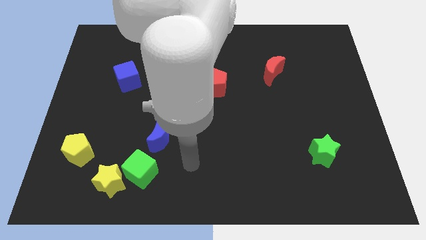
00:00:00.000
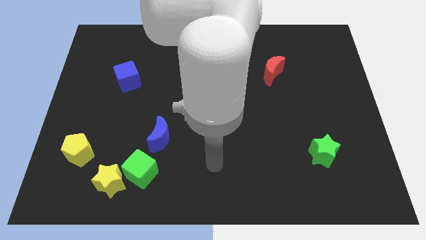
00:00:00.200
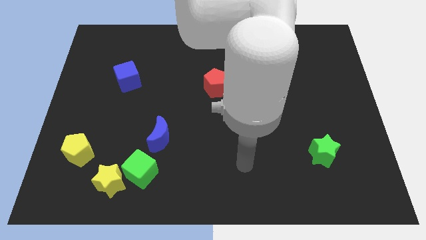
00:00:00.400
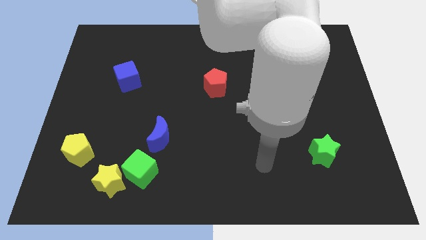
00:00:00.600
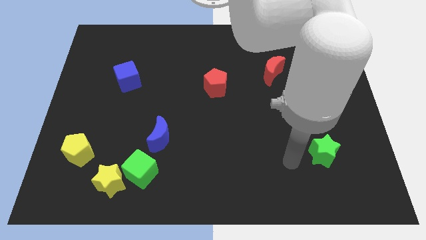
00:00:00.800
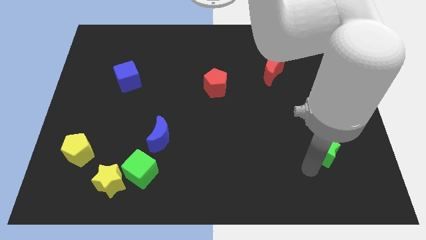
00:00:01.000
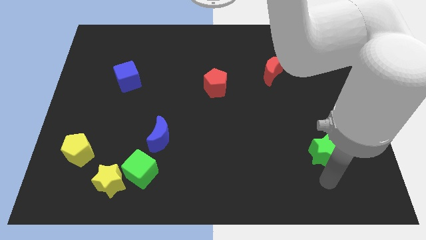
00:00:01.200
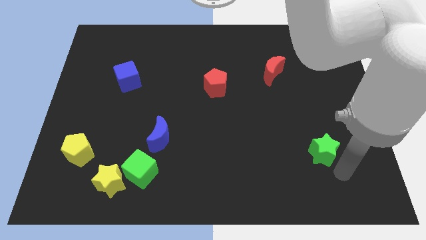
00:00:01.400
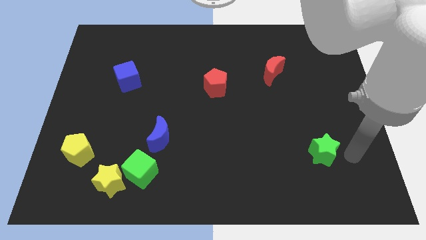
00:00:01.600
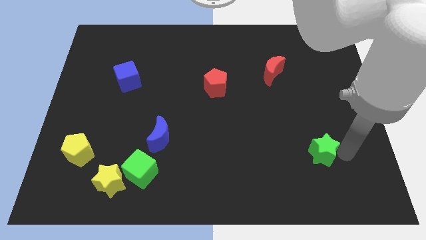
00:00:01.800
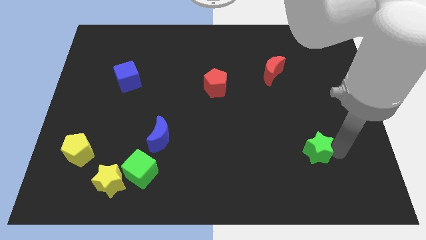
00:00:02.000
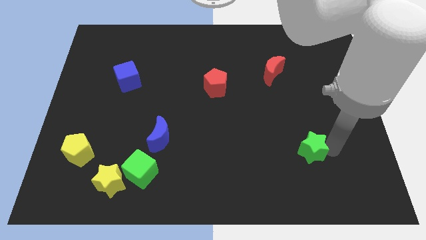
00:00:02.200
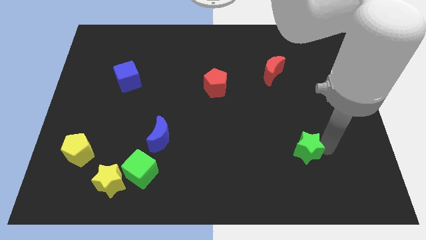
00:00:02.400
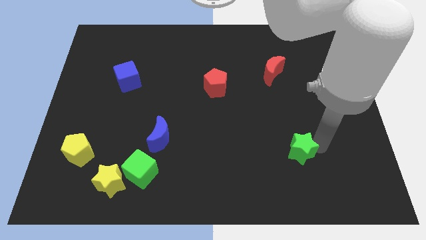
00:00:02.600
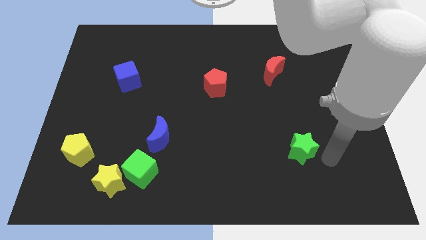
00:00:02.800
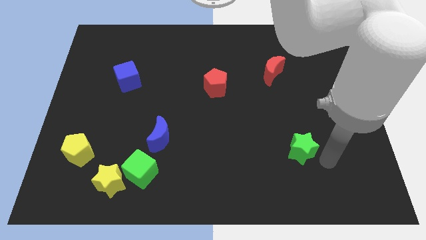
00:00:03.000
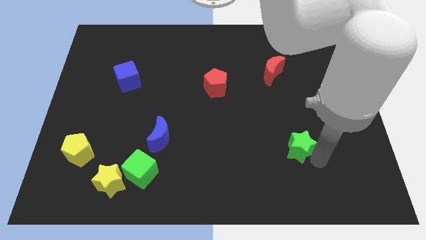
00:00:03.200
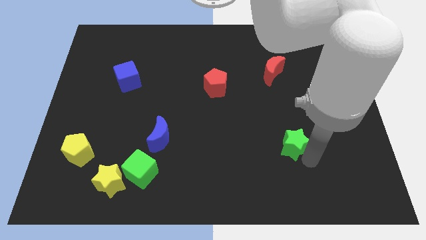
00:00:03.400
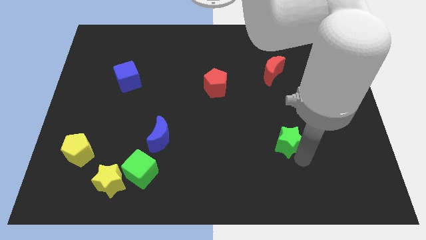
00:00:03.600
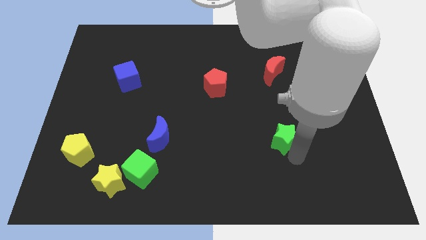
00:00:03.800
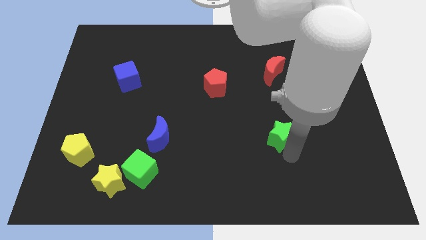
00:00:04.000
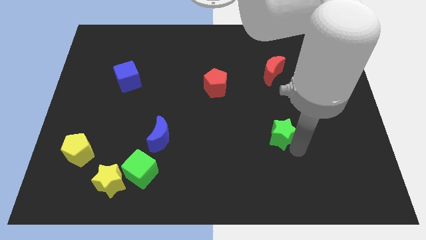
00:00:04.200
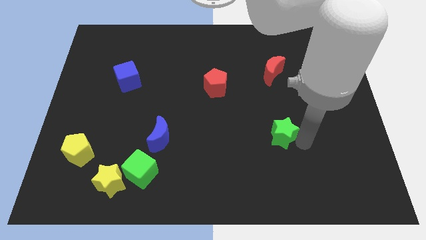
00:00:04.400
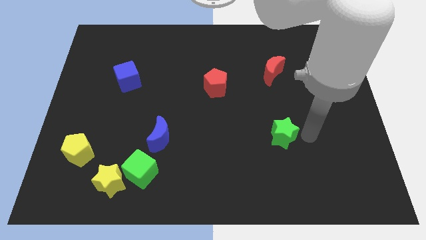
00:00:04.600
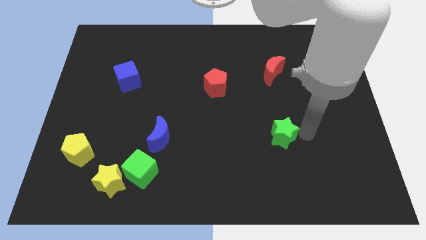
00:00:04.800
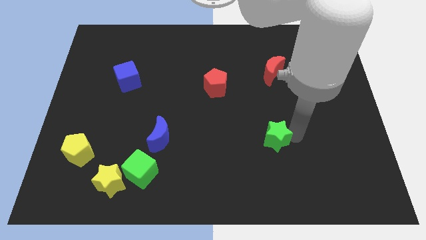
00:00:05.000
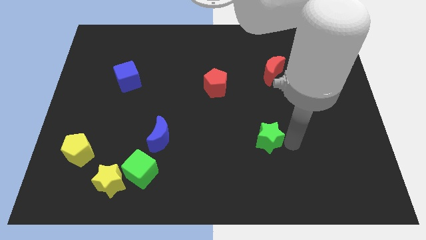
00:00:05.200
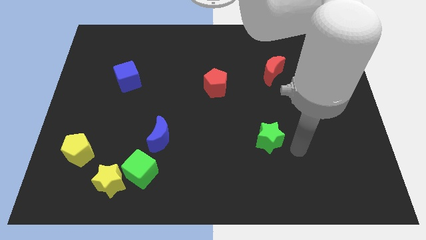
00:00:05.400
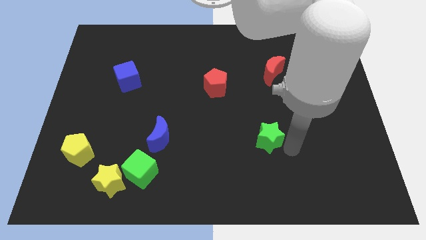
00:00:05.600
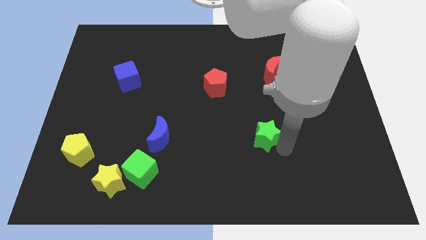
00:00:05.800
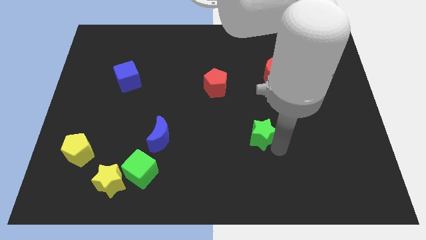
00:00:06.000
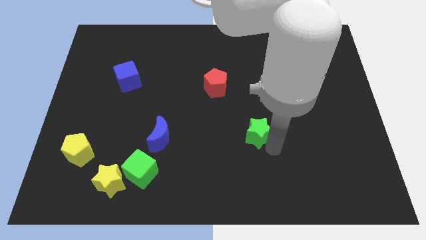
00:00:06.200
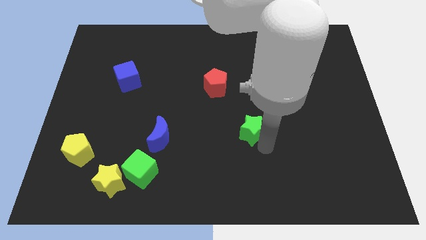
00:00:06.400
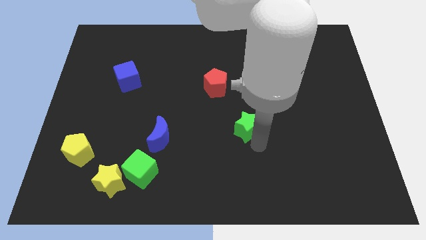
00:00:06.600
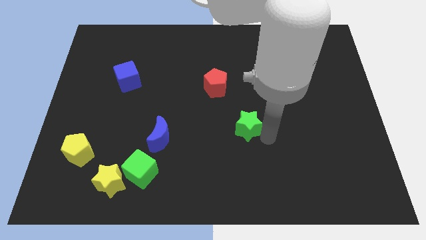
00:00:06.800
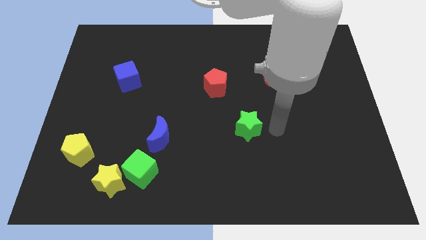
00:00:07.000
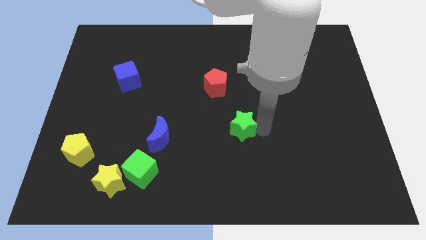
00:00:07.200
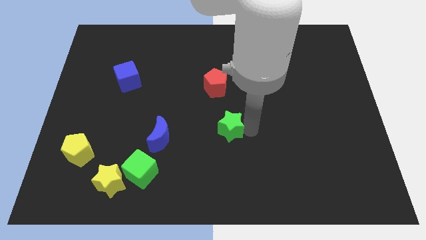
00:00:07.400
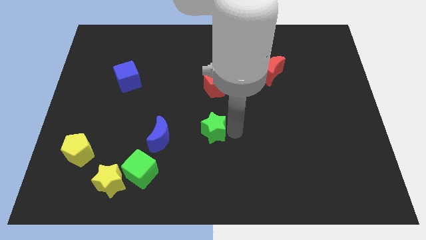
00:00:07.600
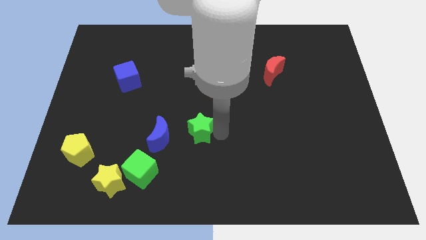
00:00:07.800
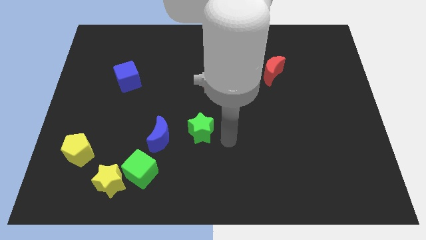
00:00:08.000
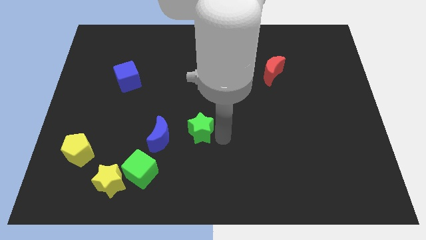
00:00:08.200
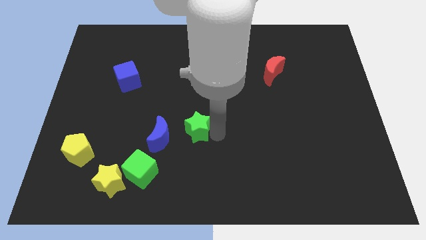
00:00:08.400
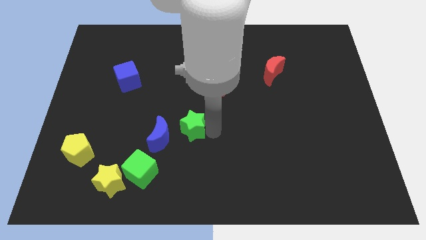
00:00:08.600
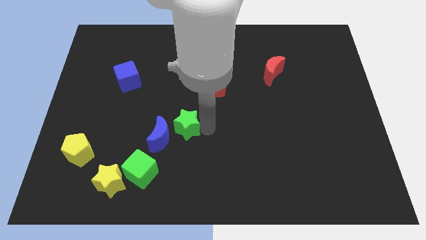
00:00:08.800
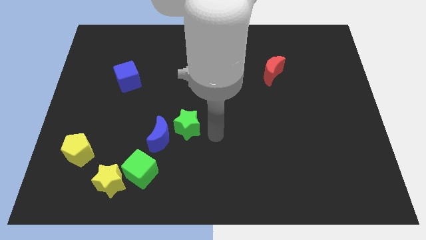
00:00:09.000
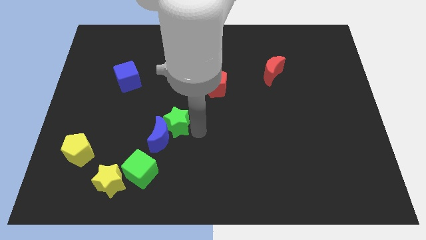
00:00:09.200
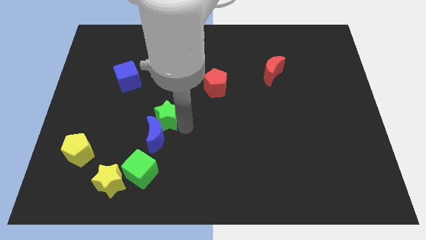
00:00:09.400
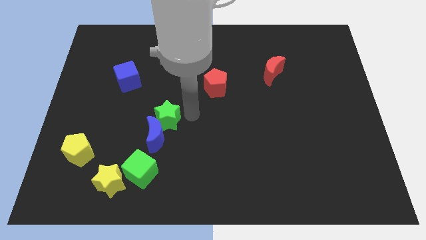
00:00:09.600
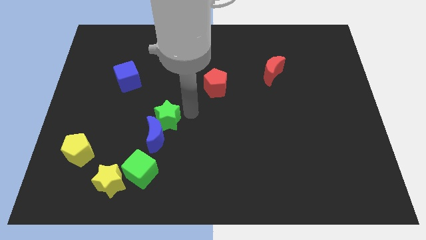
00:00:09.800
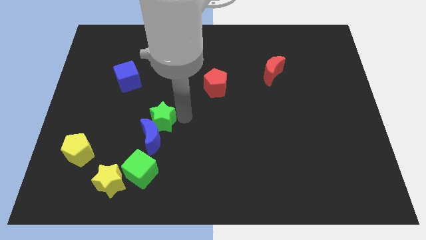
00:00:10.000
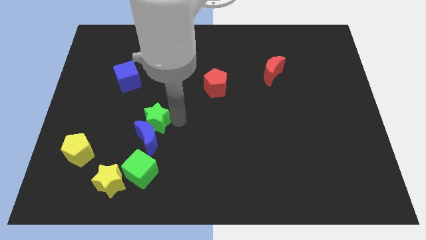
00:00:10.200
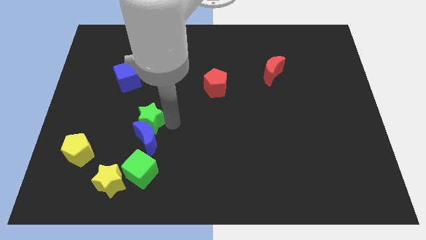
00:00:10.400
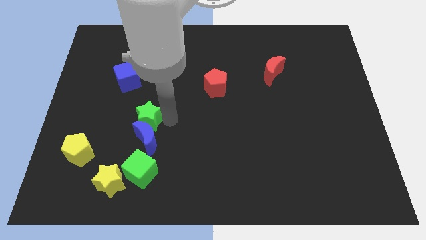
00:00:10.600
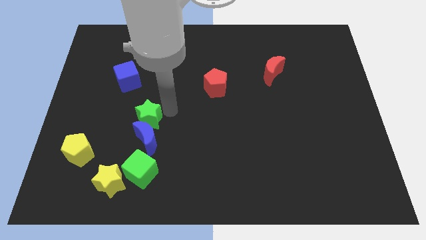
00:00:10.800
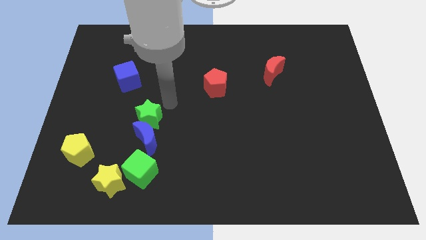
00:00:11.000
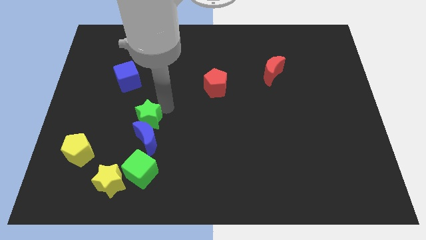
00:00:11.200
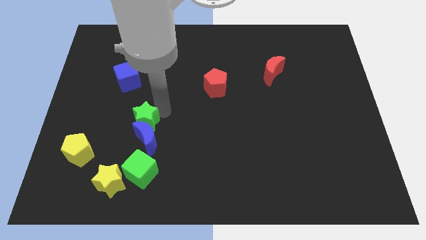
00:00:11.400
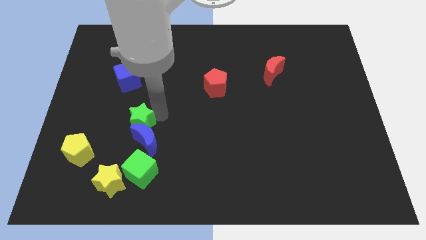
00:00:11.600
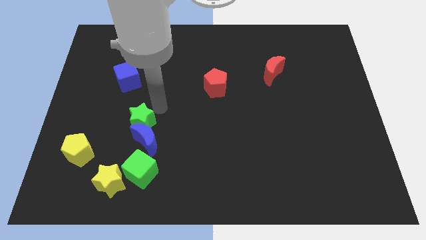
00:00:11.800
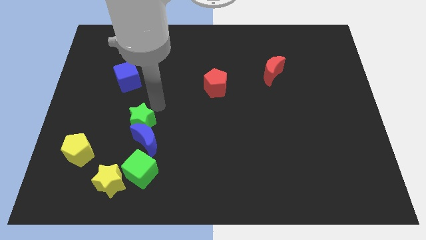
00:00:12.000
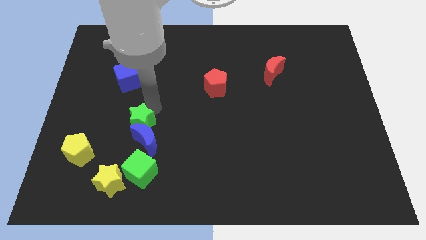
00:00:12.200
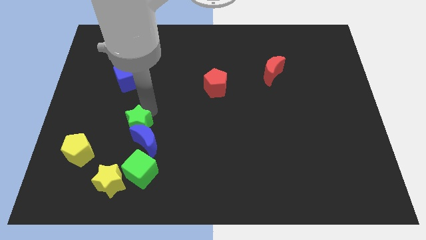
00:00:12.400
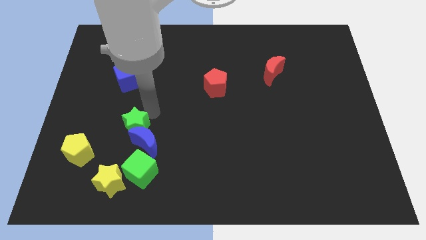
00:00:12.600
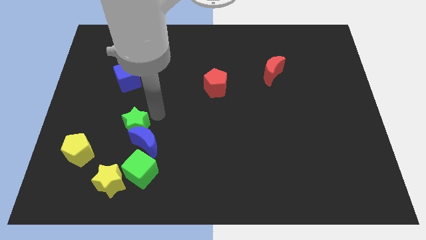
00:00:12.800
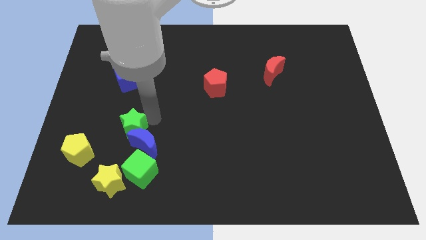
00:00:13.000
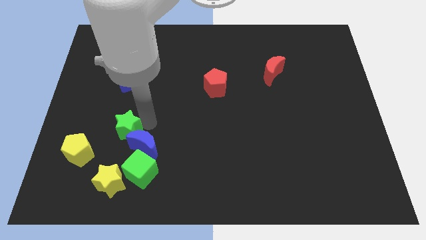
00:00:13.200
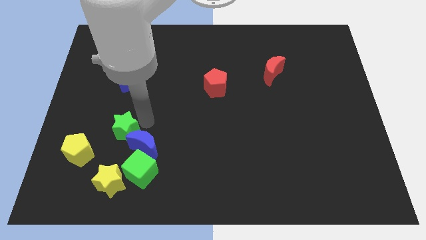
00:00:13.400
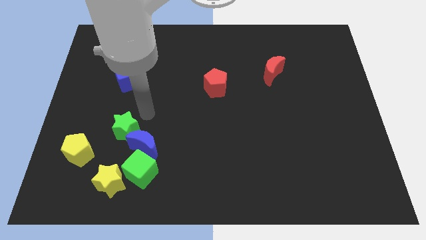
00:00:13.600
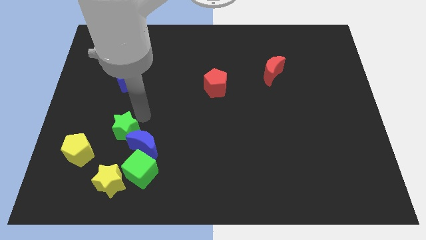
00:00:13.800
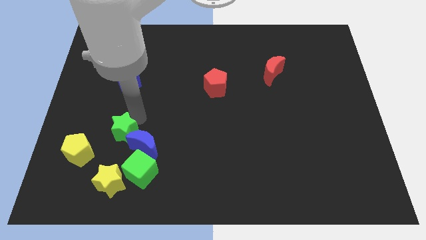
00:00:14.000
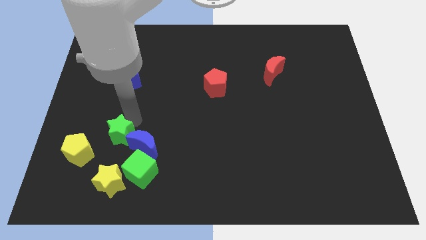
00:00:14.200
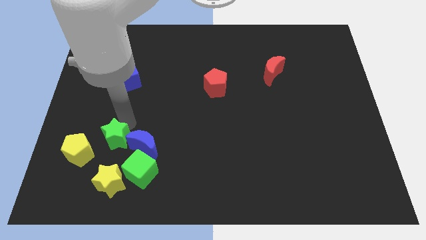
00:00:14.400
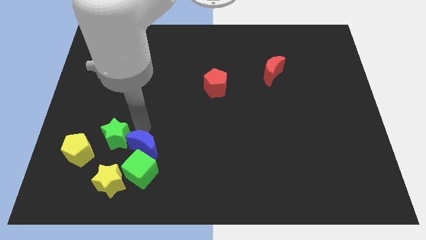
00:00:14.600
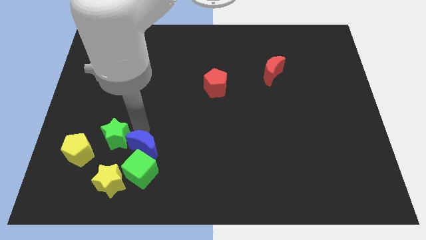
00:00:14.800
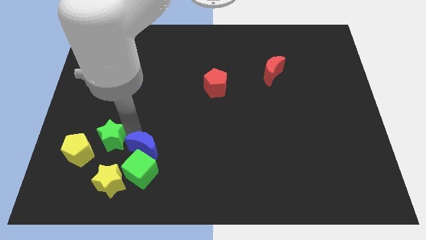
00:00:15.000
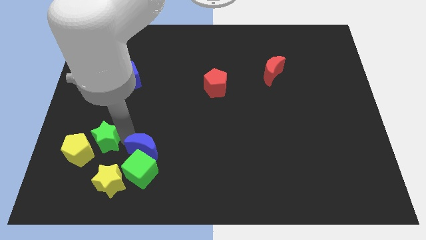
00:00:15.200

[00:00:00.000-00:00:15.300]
put the green star close to the yellow pentagon
